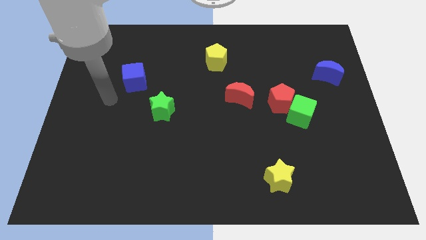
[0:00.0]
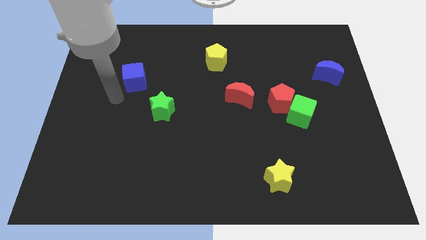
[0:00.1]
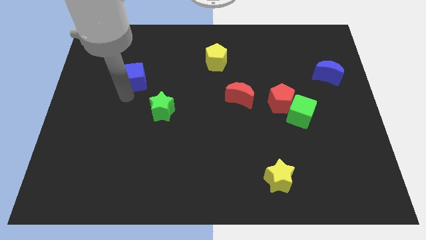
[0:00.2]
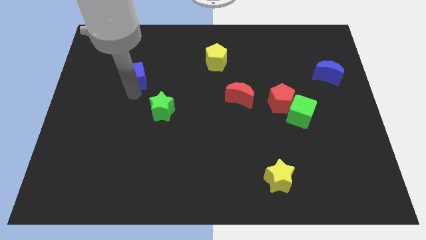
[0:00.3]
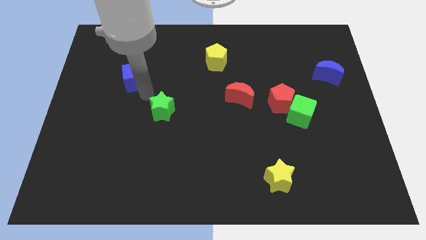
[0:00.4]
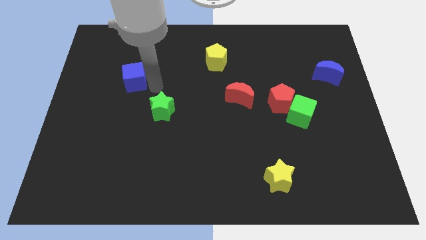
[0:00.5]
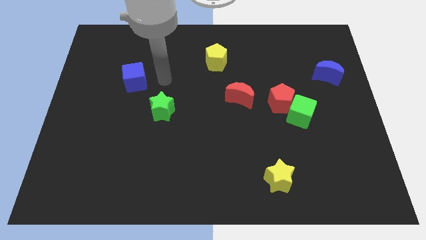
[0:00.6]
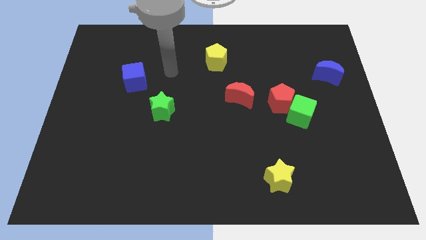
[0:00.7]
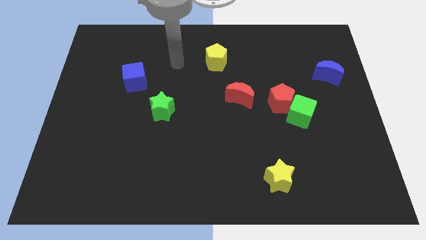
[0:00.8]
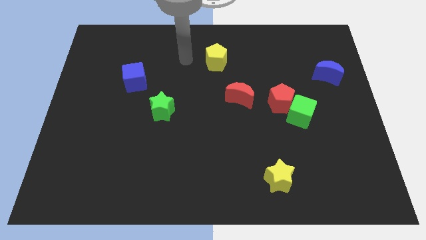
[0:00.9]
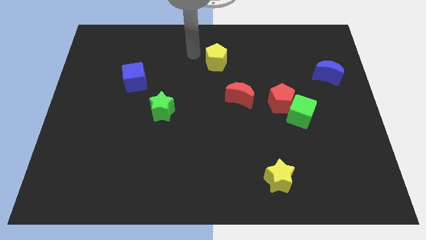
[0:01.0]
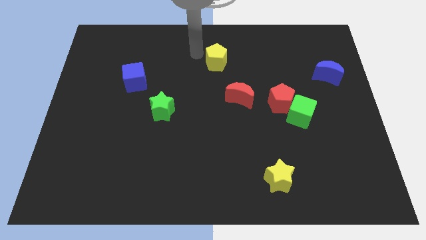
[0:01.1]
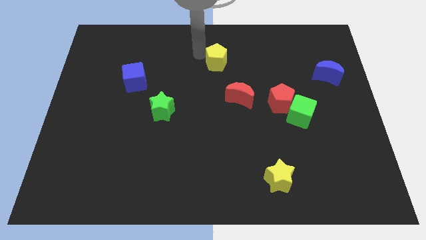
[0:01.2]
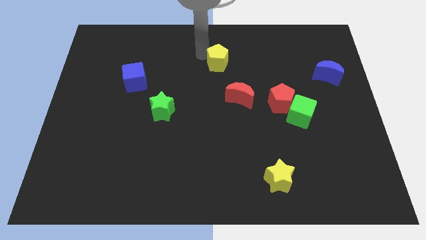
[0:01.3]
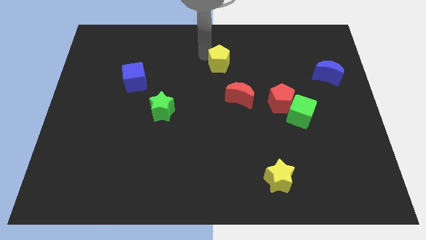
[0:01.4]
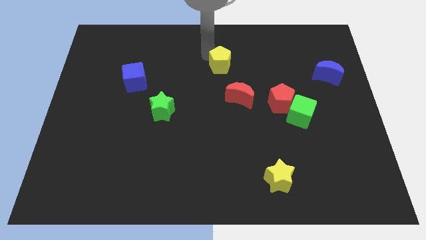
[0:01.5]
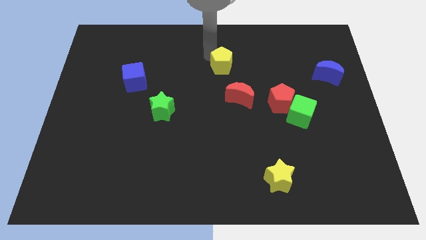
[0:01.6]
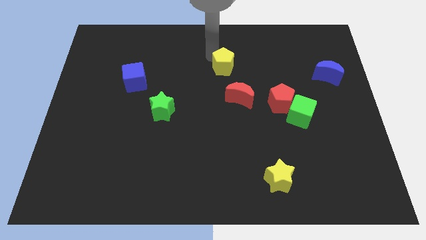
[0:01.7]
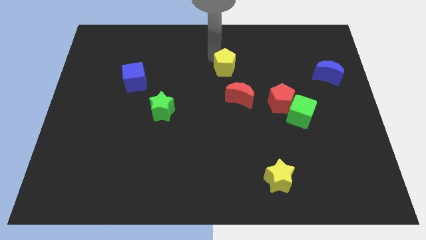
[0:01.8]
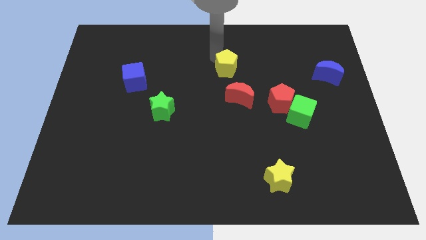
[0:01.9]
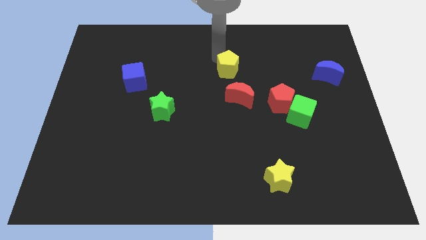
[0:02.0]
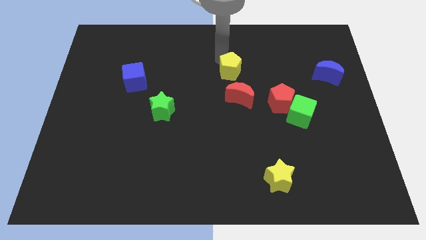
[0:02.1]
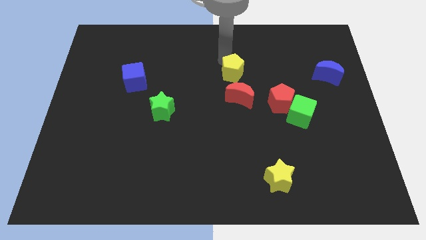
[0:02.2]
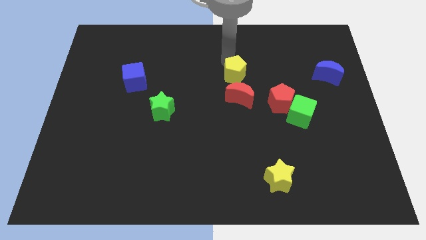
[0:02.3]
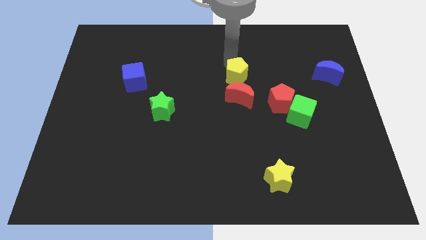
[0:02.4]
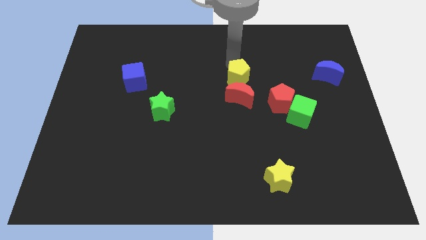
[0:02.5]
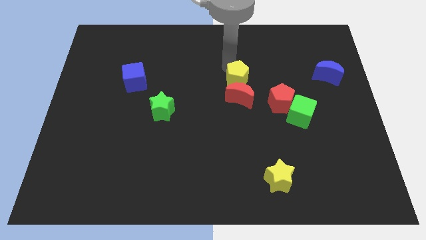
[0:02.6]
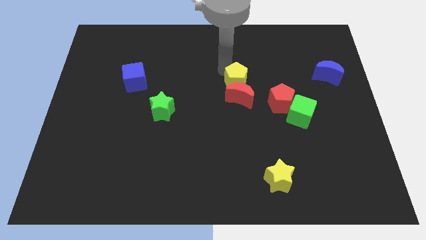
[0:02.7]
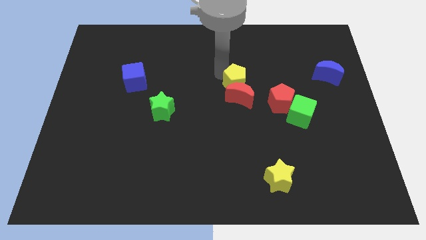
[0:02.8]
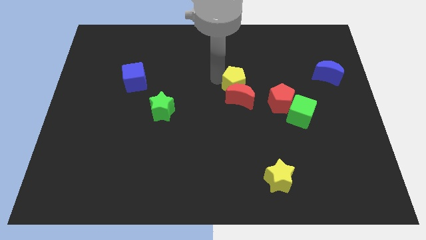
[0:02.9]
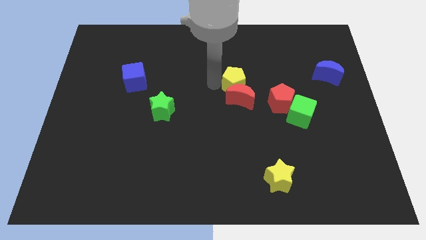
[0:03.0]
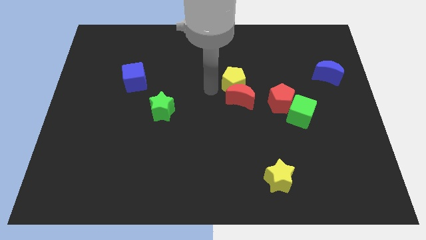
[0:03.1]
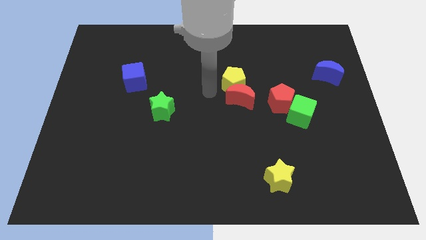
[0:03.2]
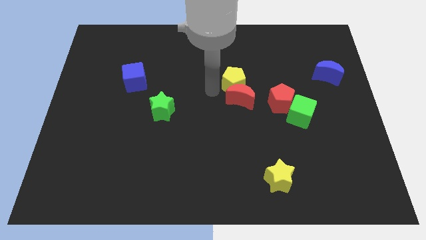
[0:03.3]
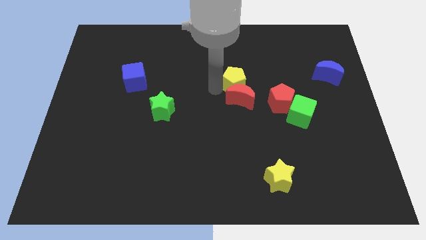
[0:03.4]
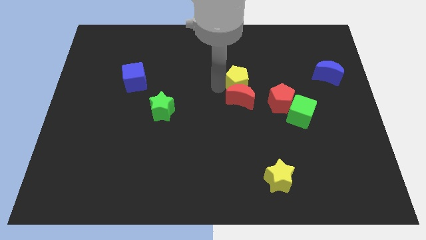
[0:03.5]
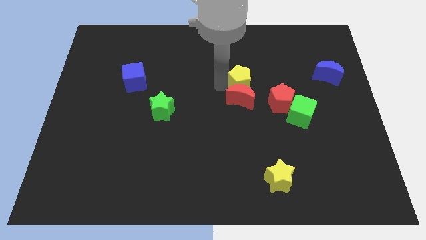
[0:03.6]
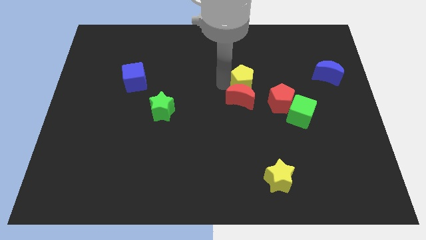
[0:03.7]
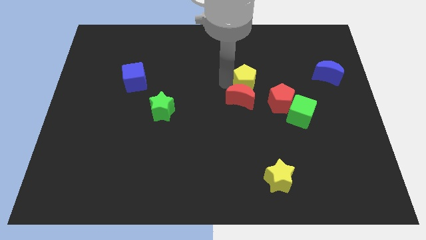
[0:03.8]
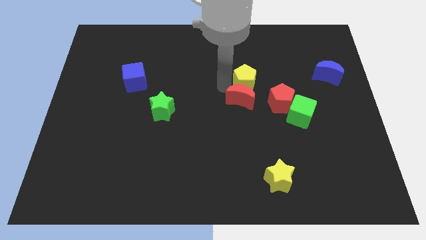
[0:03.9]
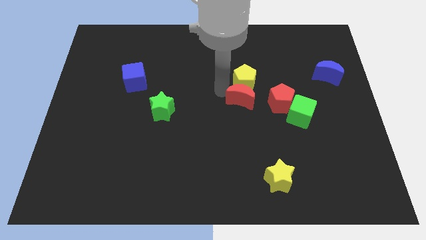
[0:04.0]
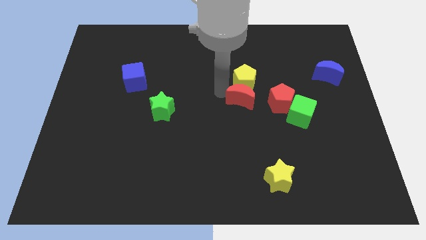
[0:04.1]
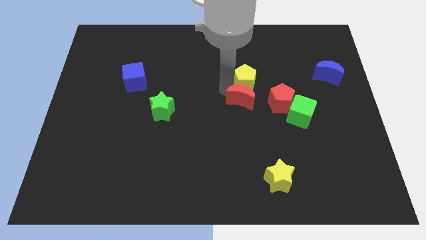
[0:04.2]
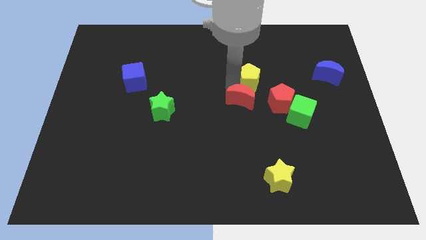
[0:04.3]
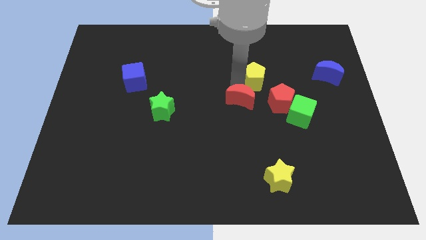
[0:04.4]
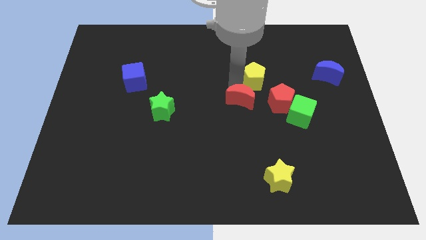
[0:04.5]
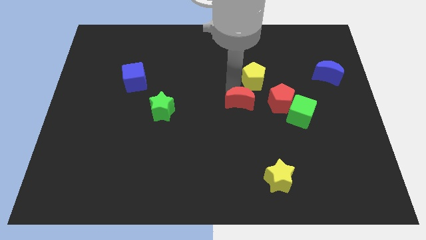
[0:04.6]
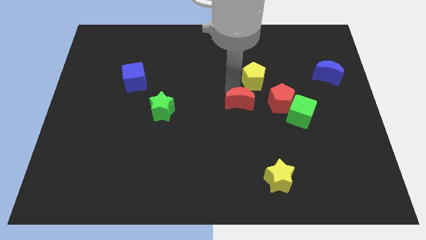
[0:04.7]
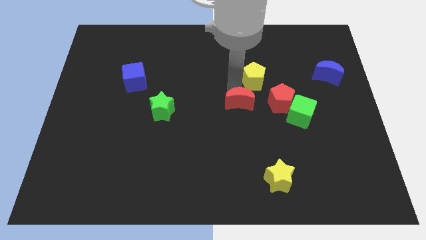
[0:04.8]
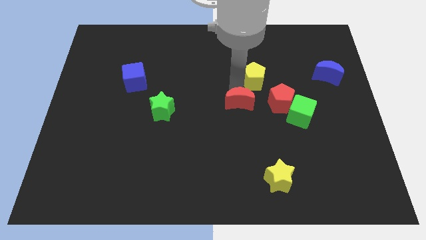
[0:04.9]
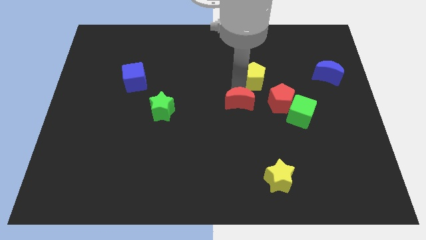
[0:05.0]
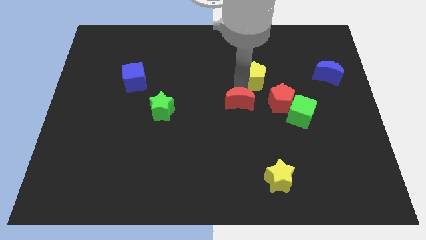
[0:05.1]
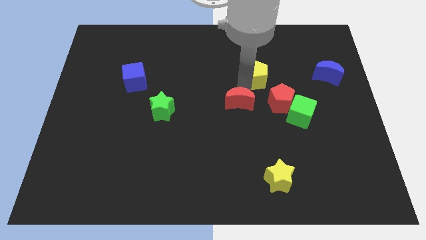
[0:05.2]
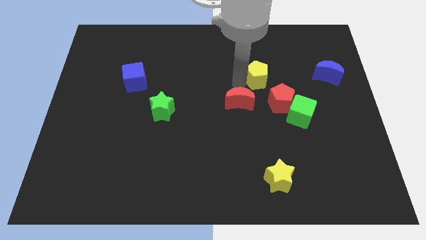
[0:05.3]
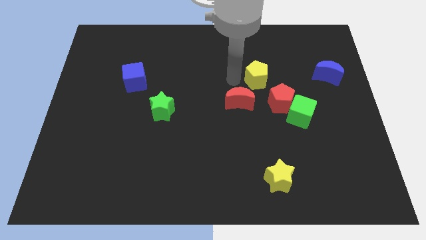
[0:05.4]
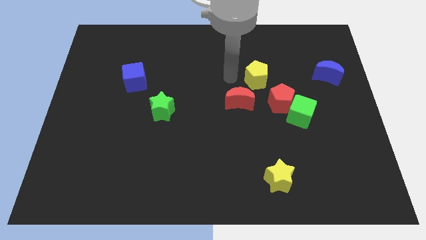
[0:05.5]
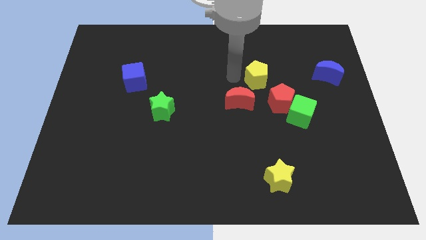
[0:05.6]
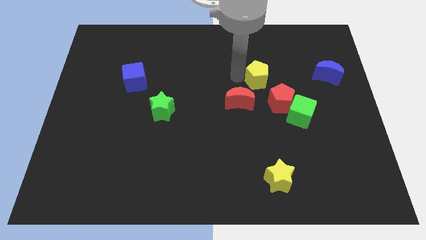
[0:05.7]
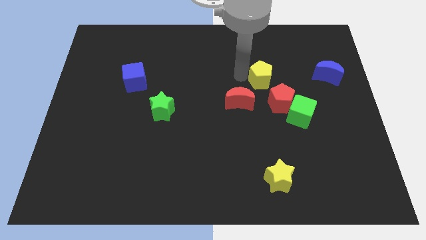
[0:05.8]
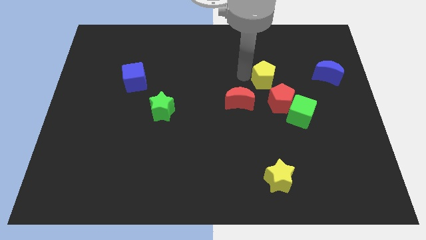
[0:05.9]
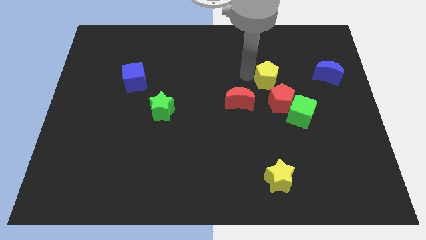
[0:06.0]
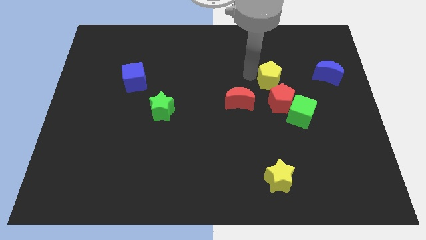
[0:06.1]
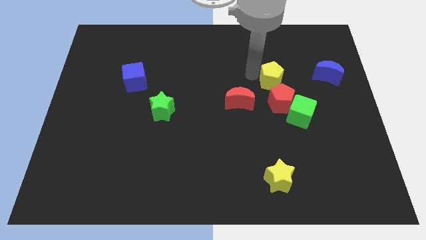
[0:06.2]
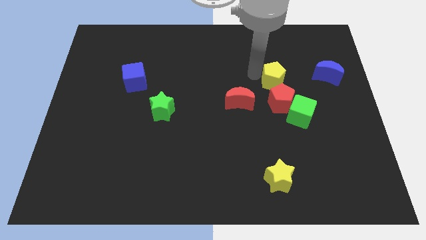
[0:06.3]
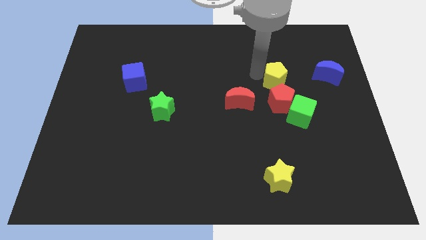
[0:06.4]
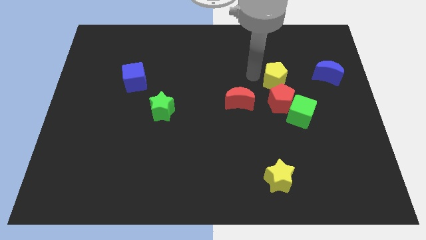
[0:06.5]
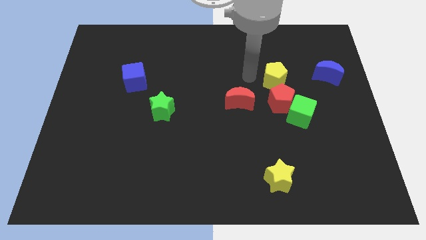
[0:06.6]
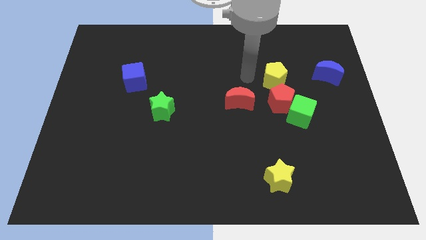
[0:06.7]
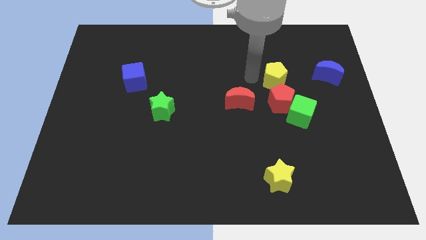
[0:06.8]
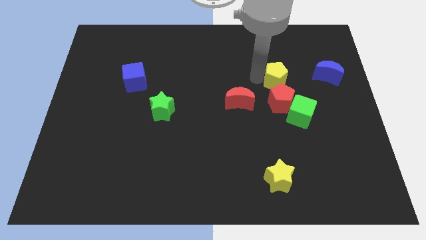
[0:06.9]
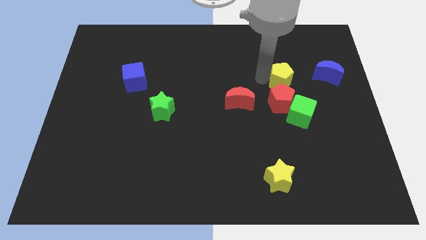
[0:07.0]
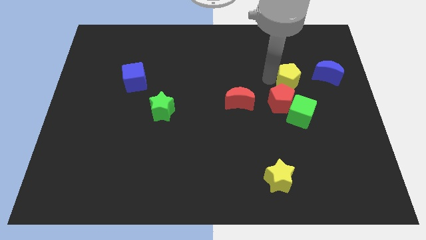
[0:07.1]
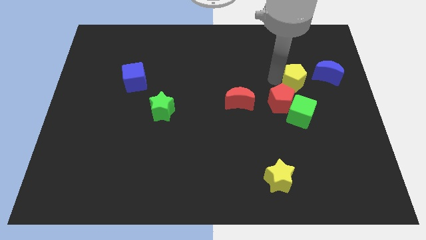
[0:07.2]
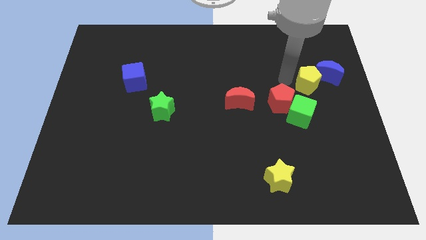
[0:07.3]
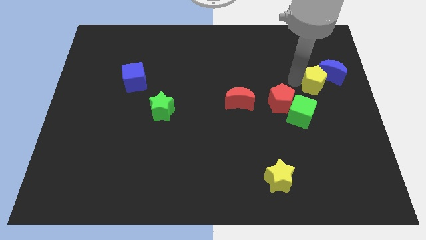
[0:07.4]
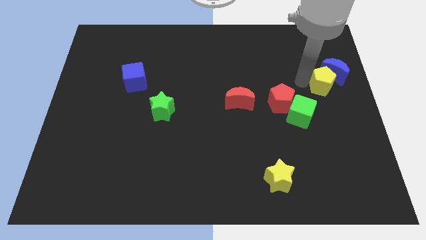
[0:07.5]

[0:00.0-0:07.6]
push the yellow pentagon to the right side
